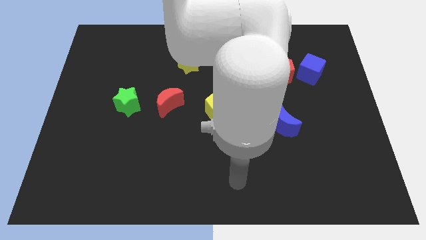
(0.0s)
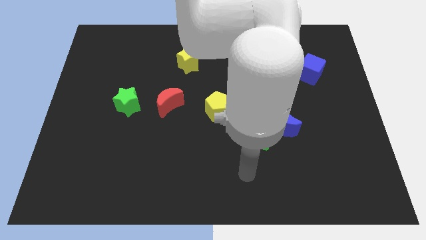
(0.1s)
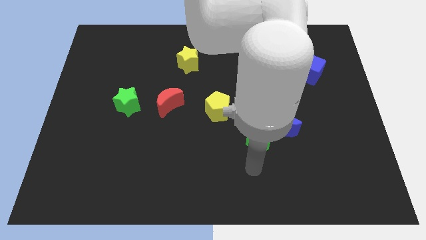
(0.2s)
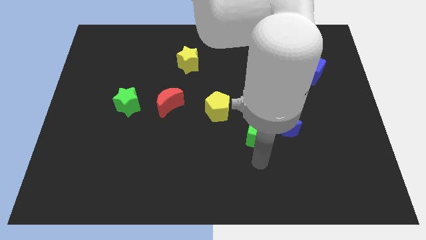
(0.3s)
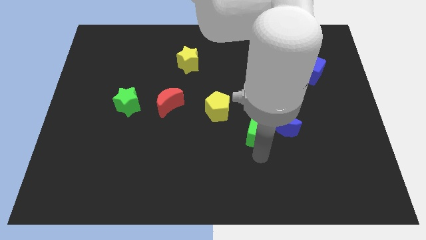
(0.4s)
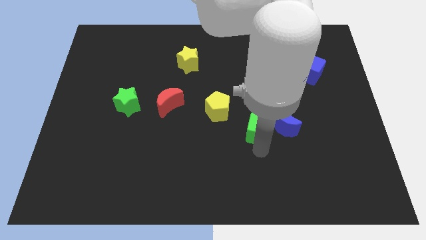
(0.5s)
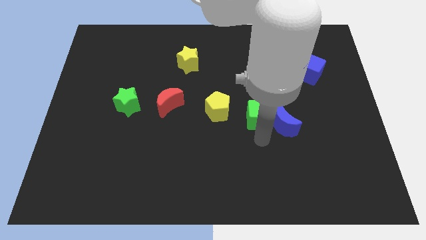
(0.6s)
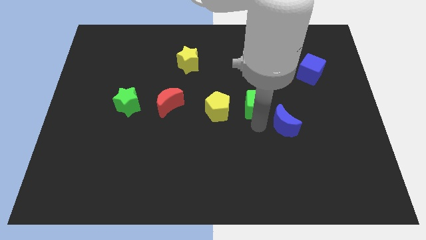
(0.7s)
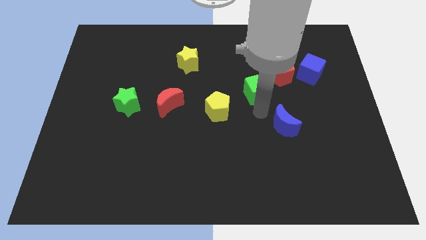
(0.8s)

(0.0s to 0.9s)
separate the blue moon from the green cube

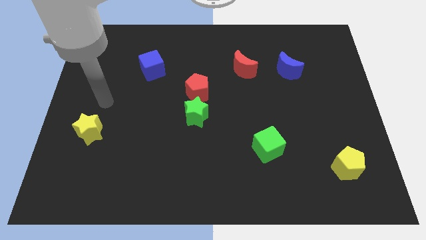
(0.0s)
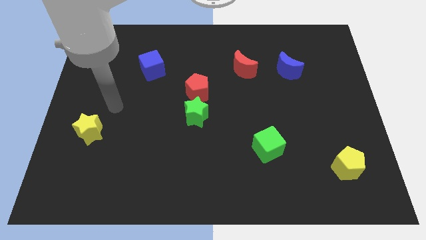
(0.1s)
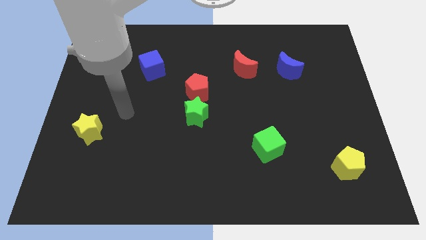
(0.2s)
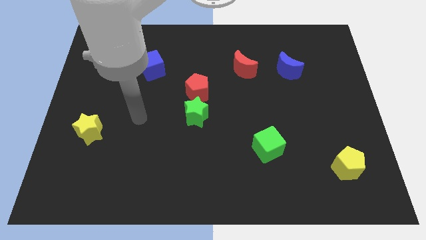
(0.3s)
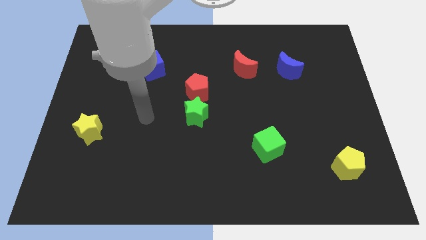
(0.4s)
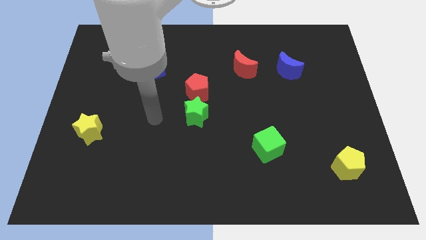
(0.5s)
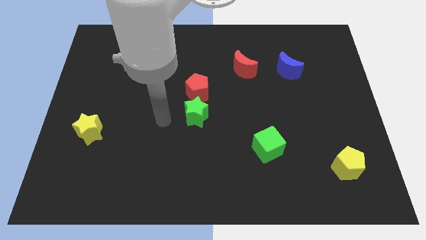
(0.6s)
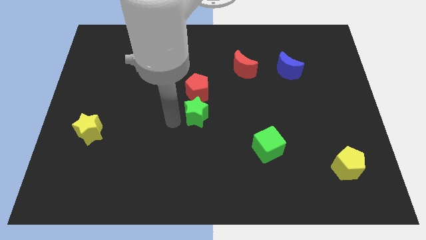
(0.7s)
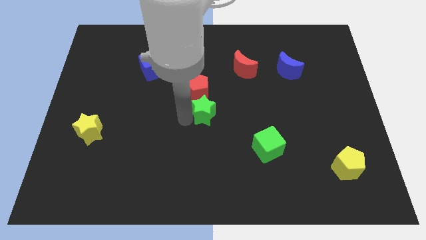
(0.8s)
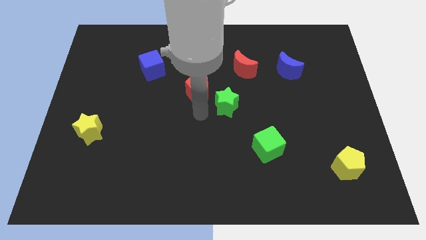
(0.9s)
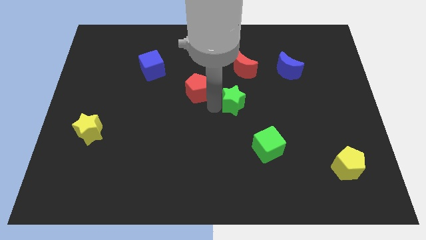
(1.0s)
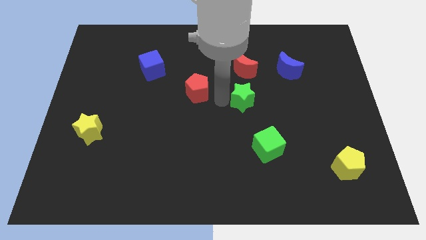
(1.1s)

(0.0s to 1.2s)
separate the red pentagon from the green star

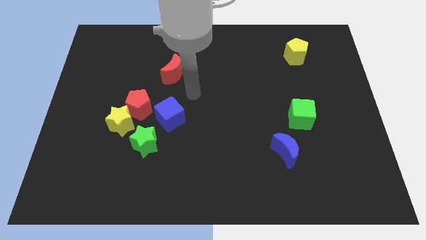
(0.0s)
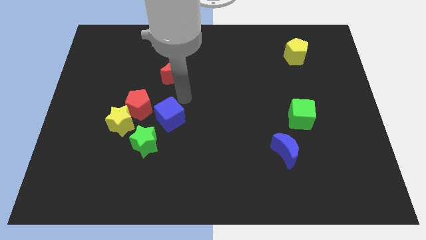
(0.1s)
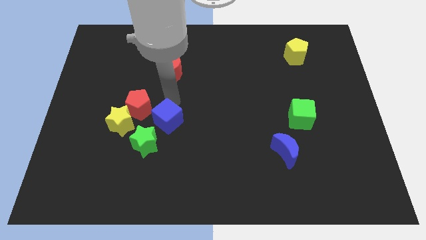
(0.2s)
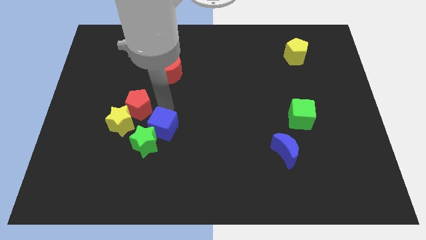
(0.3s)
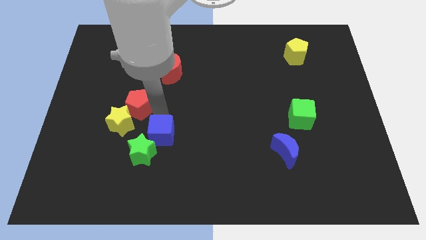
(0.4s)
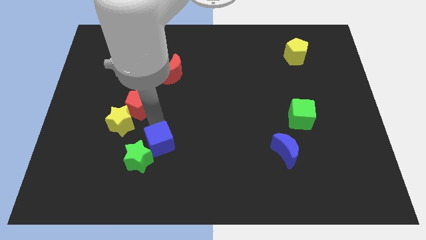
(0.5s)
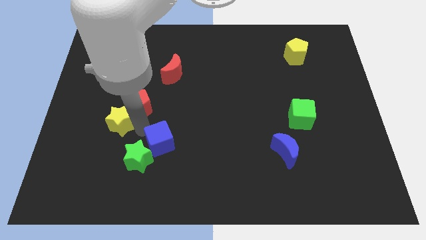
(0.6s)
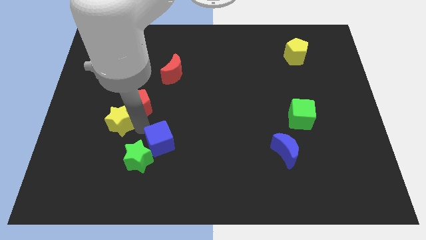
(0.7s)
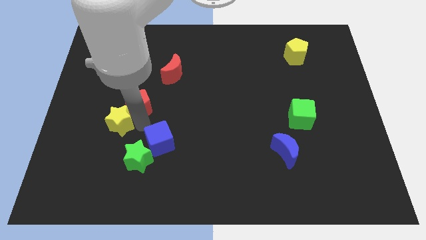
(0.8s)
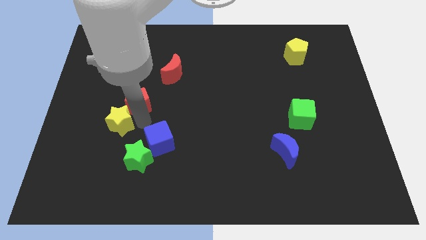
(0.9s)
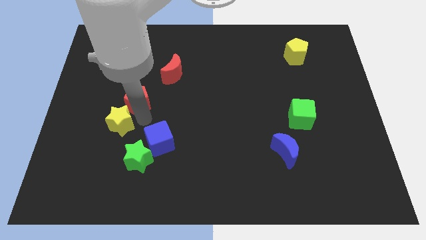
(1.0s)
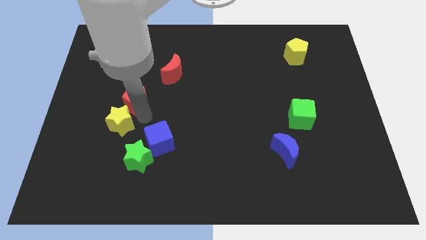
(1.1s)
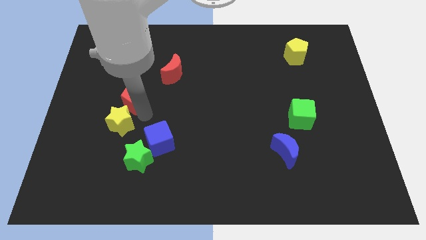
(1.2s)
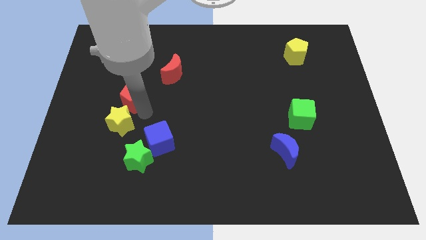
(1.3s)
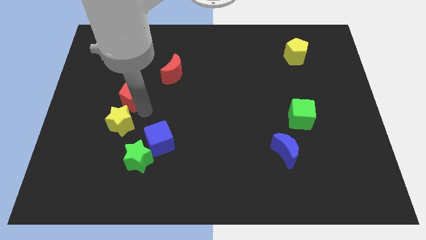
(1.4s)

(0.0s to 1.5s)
separate the red pentagon from the yellow star and blue cube

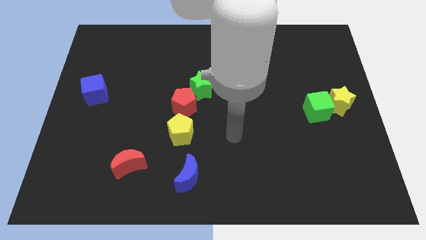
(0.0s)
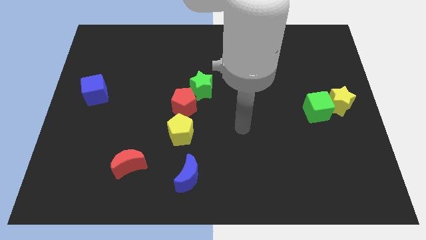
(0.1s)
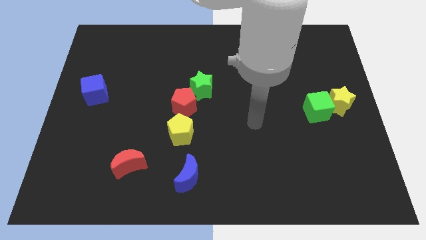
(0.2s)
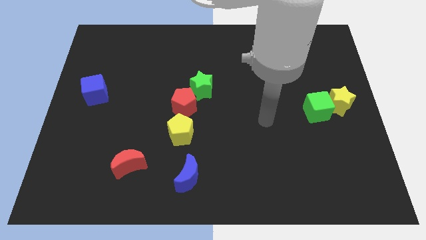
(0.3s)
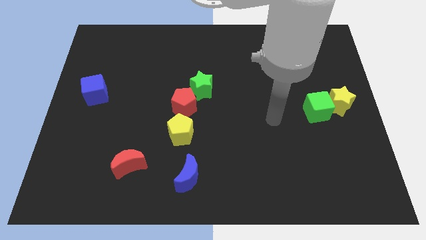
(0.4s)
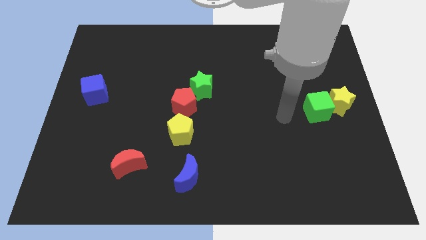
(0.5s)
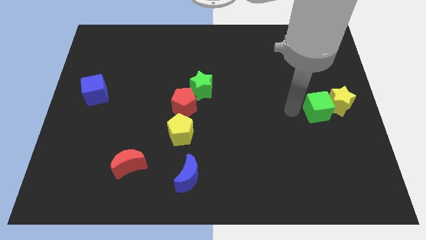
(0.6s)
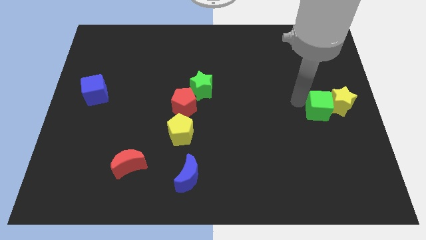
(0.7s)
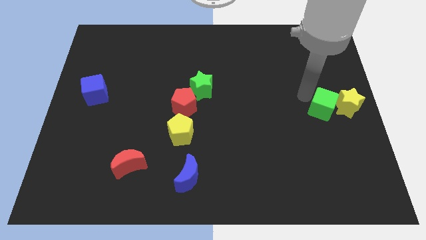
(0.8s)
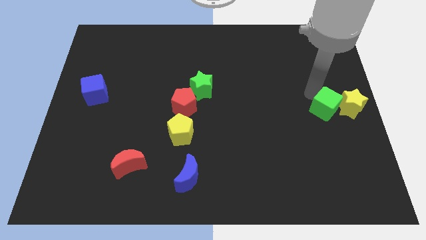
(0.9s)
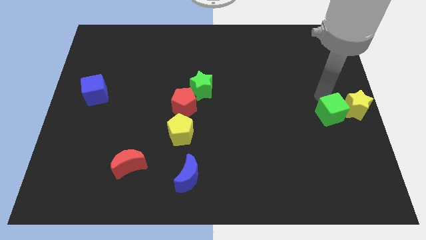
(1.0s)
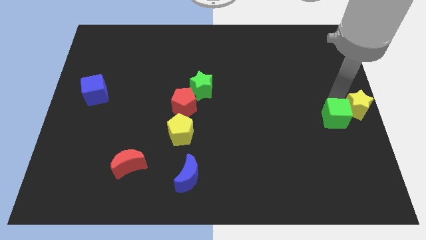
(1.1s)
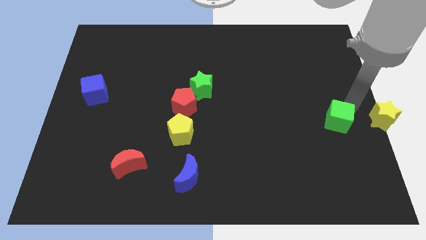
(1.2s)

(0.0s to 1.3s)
pull the green cube apart from the yellow star

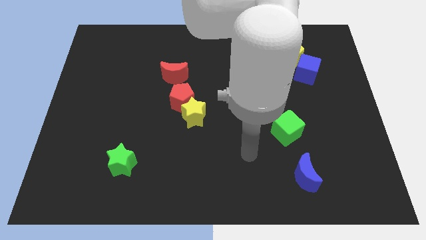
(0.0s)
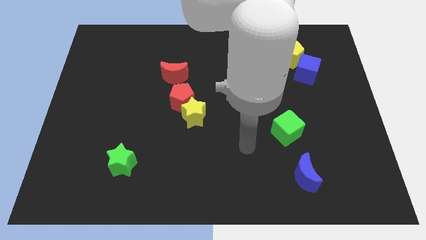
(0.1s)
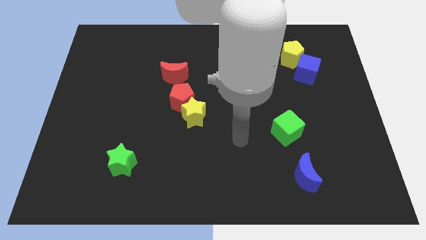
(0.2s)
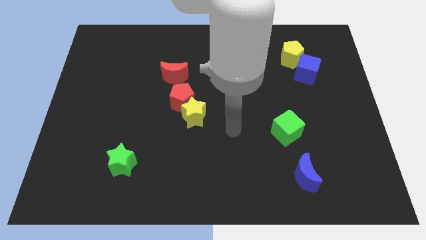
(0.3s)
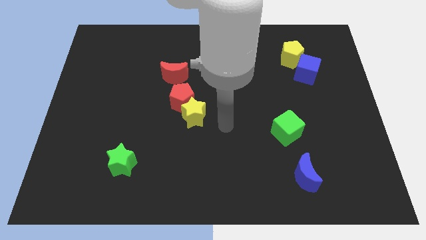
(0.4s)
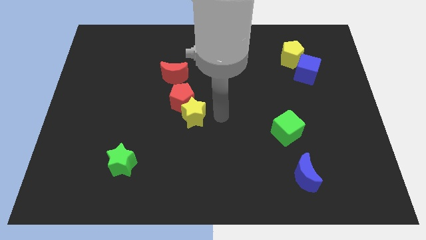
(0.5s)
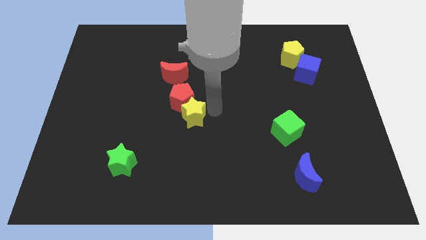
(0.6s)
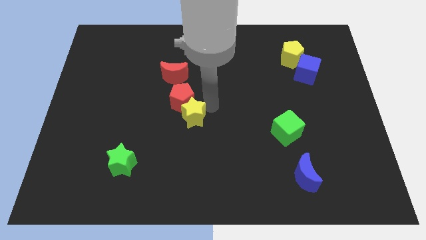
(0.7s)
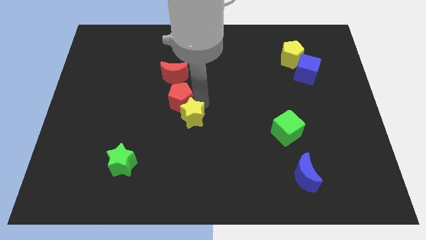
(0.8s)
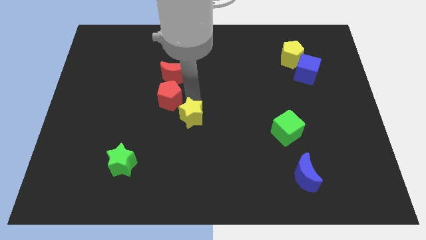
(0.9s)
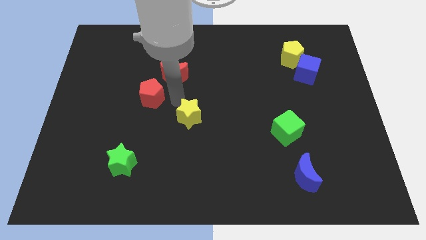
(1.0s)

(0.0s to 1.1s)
move the yellow star away from the red pentagon

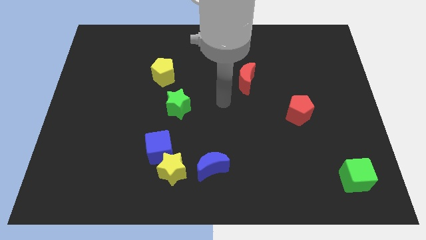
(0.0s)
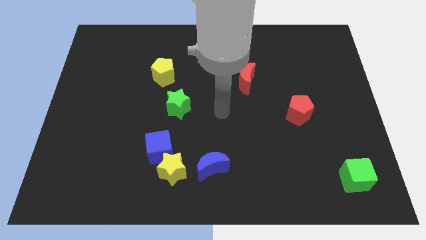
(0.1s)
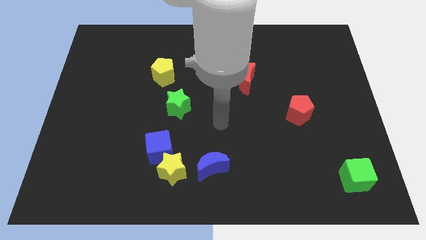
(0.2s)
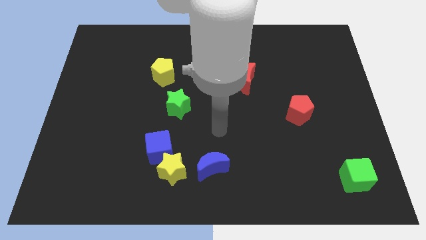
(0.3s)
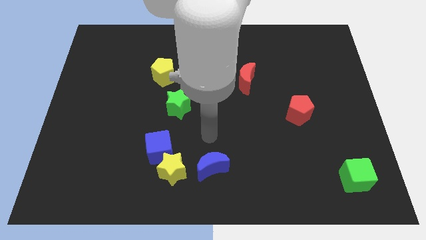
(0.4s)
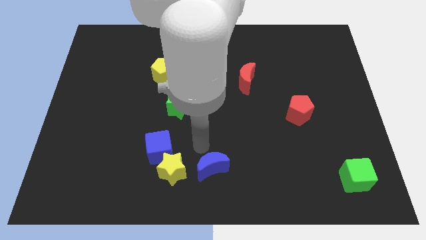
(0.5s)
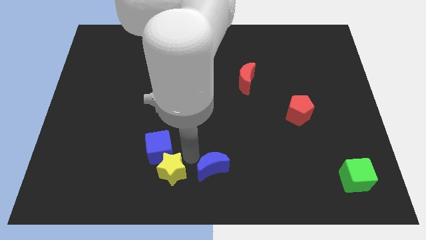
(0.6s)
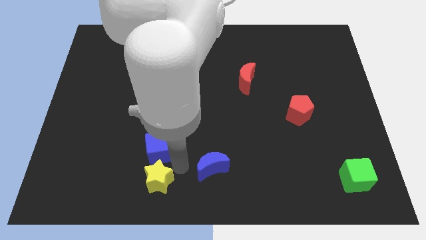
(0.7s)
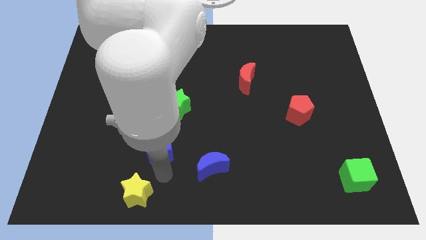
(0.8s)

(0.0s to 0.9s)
move the blue cube away from the yellow star

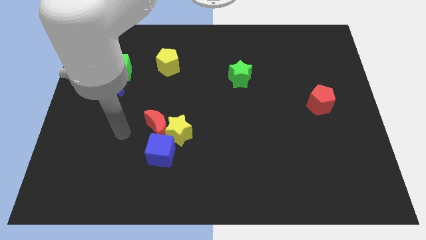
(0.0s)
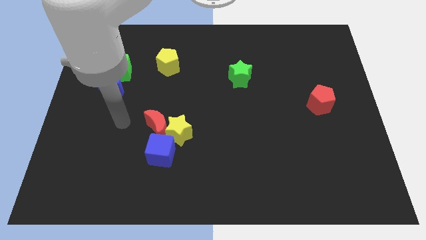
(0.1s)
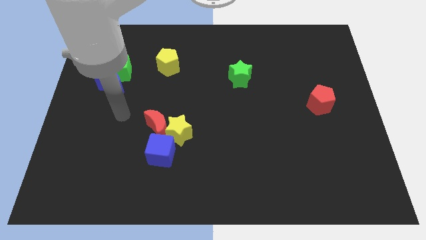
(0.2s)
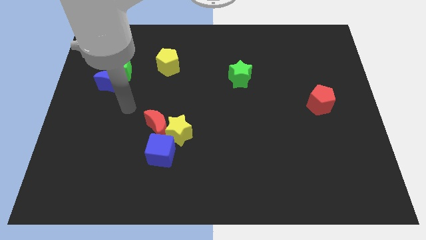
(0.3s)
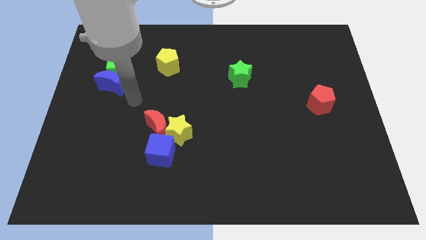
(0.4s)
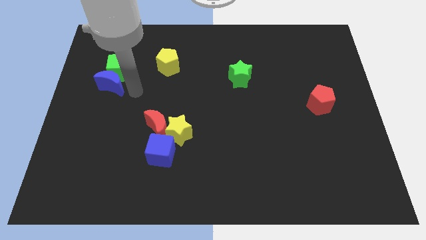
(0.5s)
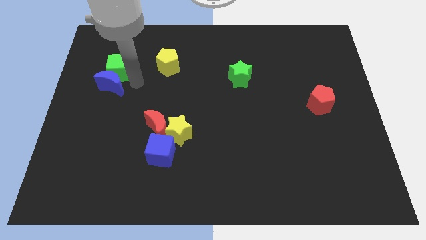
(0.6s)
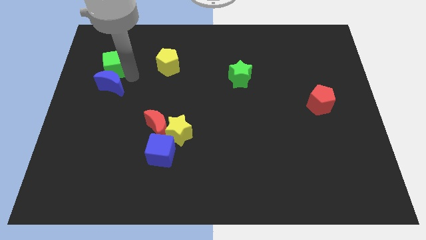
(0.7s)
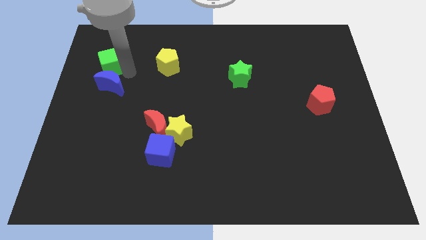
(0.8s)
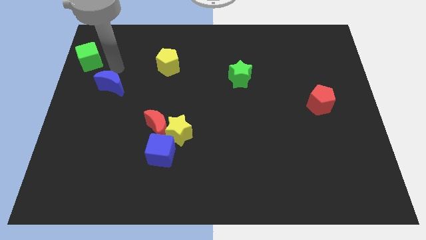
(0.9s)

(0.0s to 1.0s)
pull the blue moon apart from the green cube

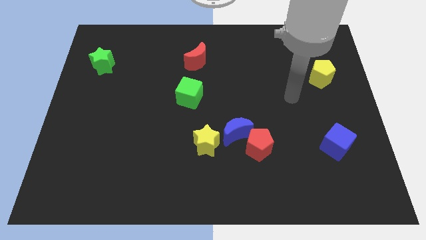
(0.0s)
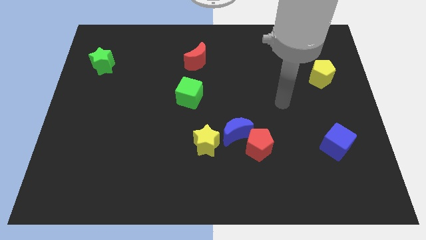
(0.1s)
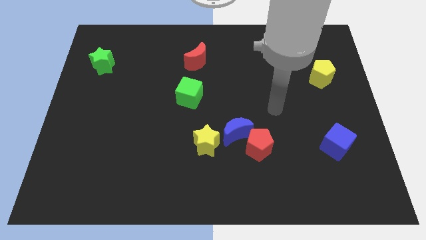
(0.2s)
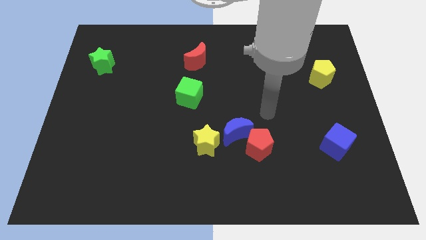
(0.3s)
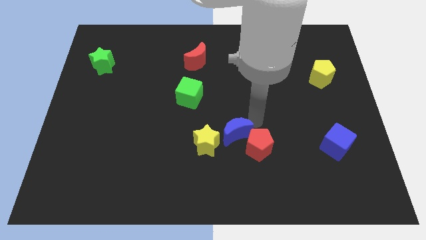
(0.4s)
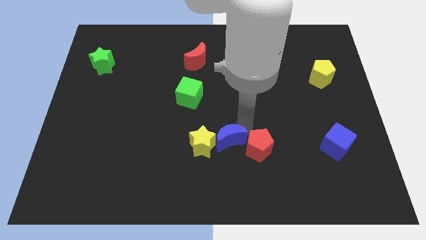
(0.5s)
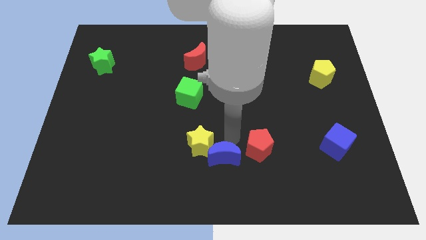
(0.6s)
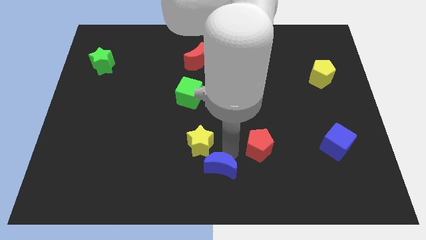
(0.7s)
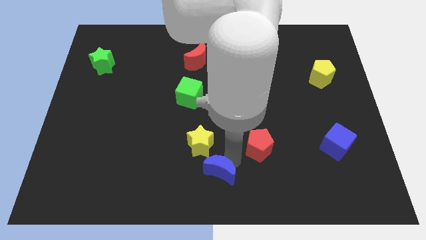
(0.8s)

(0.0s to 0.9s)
pull the red pentagon apart from the blue moon

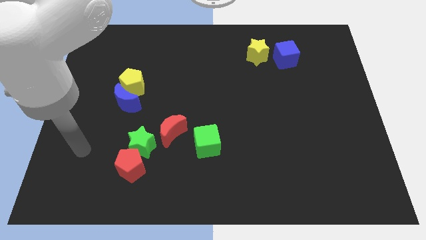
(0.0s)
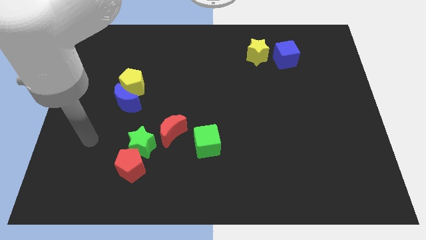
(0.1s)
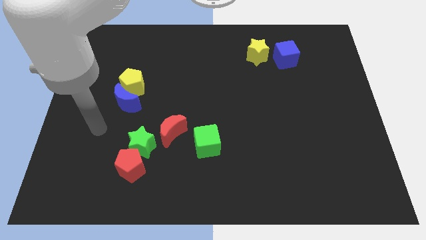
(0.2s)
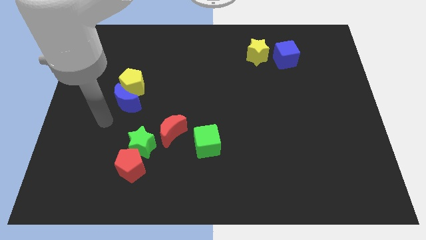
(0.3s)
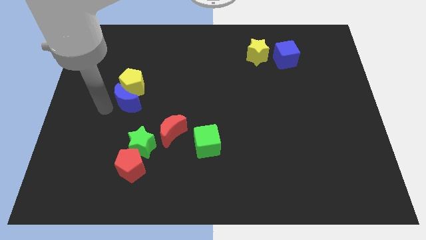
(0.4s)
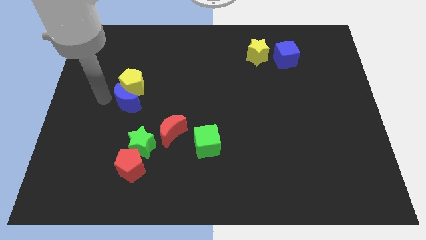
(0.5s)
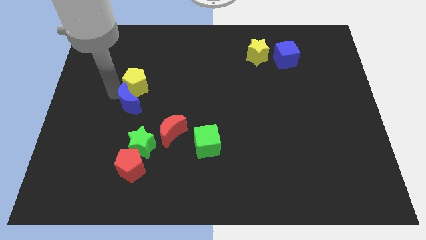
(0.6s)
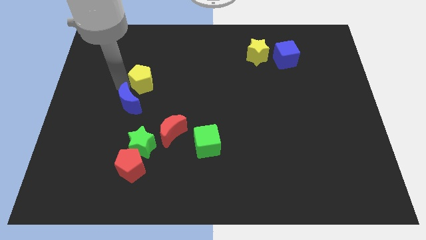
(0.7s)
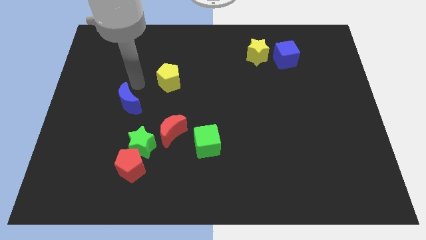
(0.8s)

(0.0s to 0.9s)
separate the blue moon from the yellow pentagon
